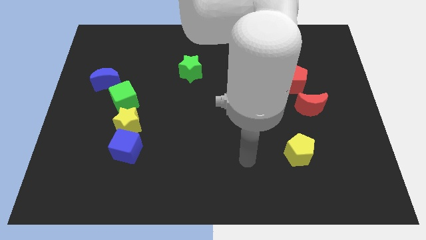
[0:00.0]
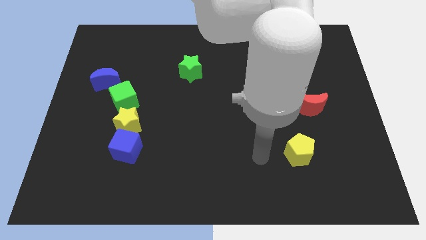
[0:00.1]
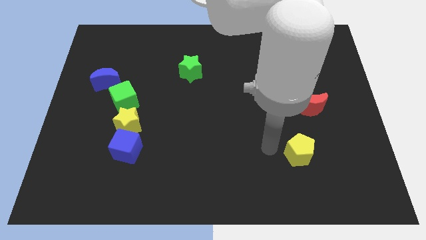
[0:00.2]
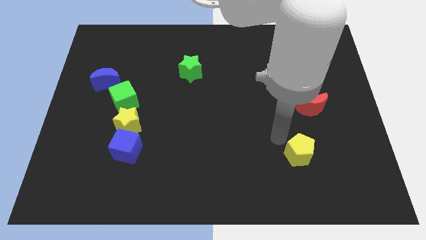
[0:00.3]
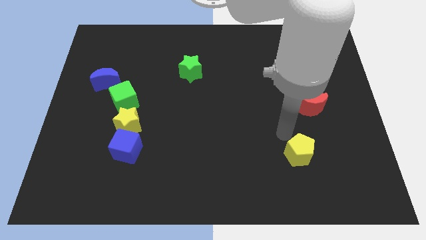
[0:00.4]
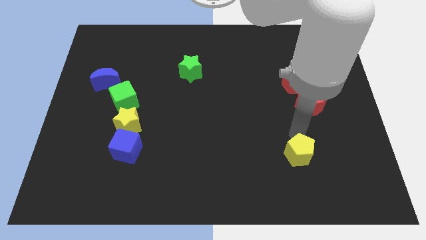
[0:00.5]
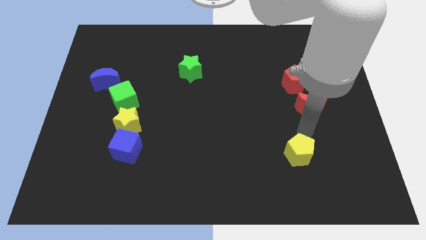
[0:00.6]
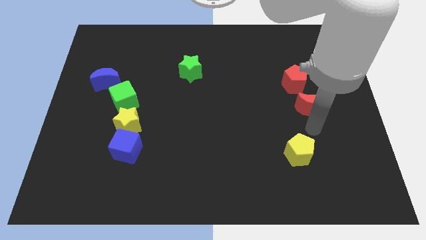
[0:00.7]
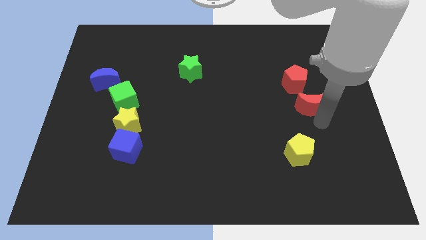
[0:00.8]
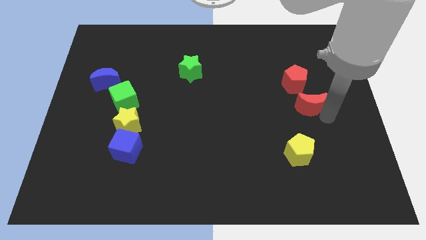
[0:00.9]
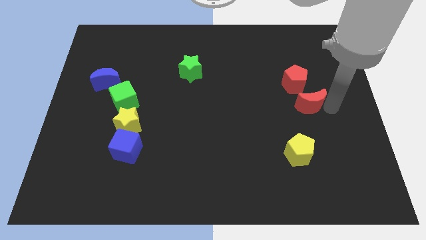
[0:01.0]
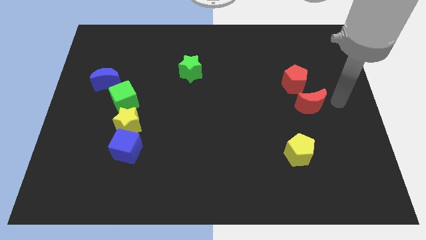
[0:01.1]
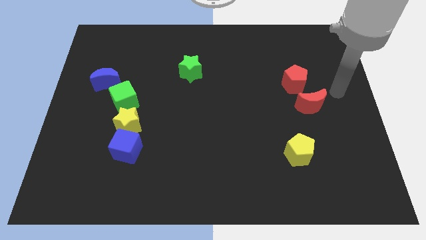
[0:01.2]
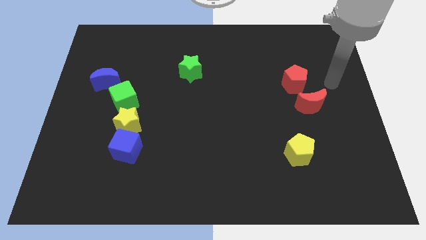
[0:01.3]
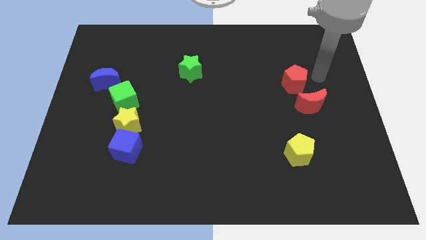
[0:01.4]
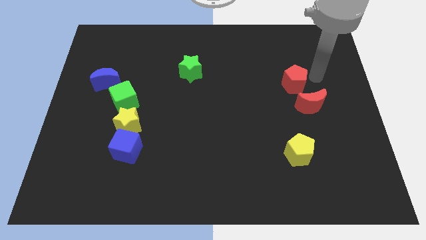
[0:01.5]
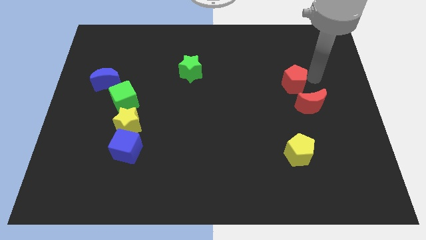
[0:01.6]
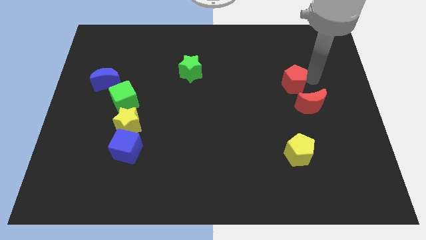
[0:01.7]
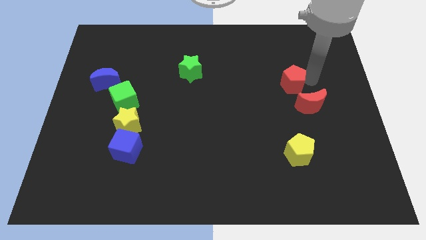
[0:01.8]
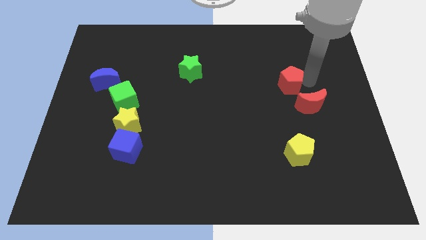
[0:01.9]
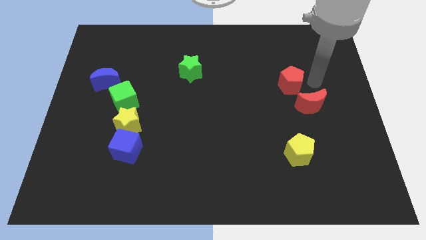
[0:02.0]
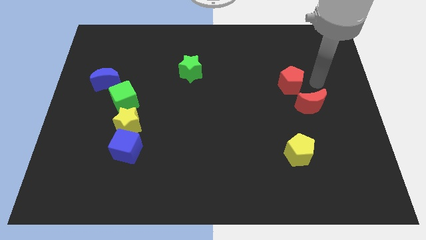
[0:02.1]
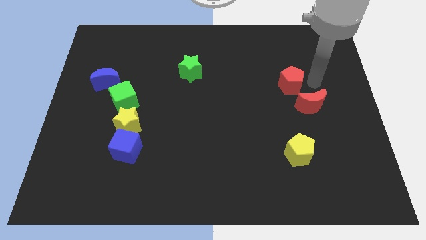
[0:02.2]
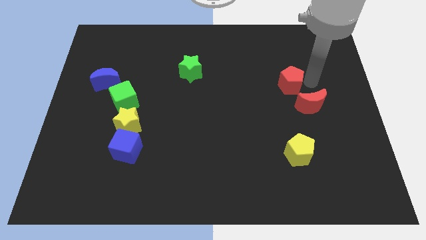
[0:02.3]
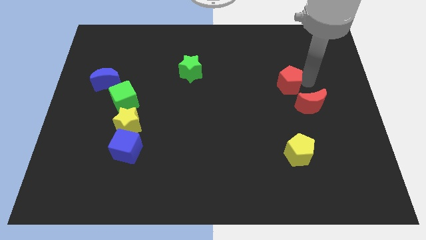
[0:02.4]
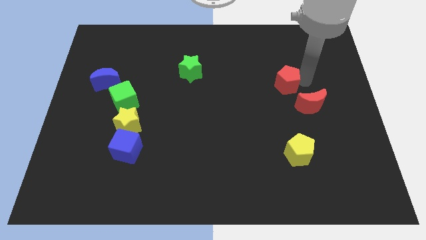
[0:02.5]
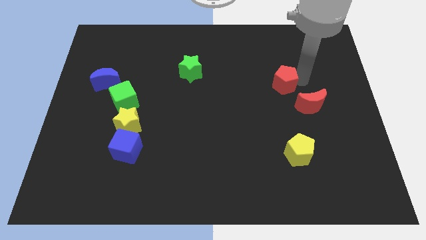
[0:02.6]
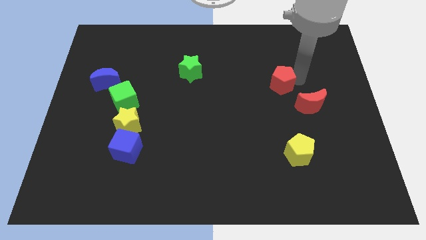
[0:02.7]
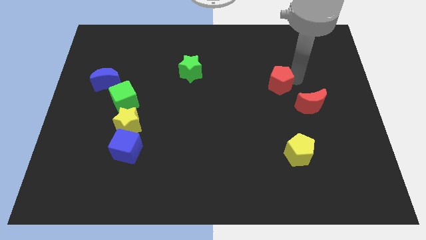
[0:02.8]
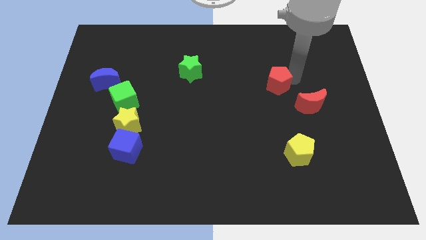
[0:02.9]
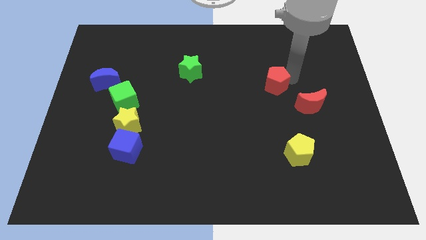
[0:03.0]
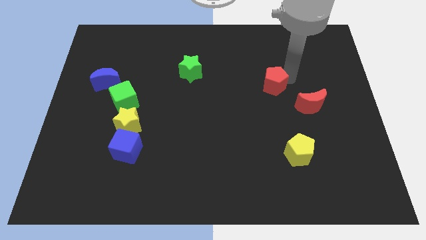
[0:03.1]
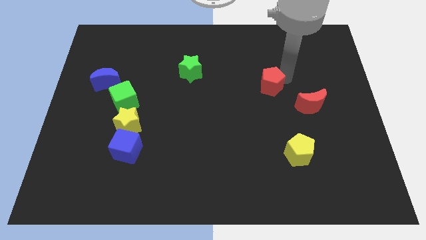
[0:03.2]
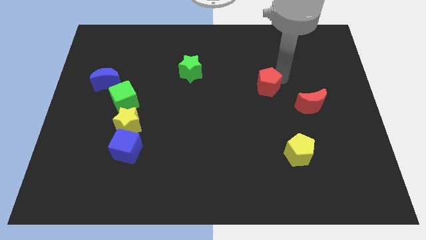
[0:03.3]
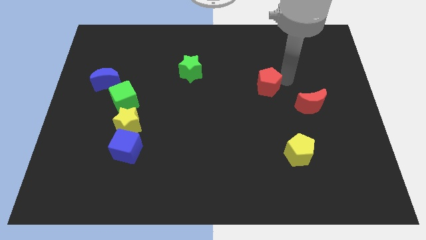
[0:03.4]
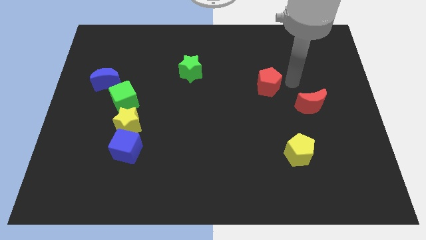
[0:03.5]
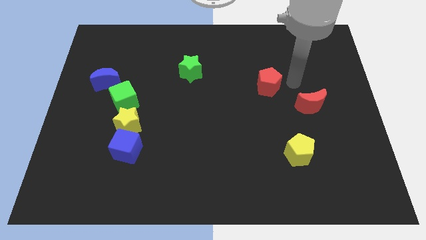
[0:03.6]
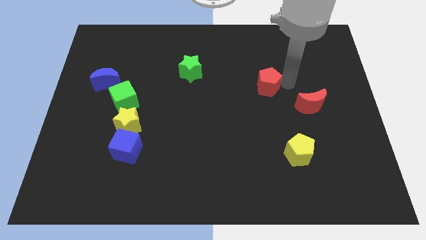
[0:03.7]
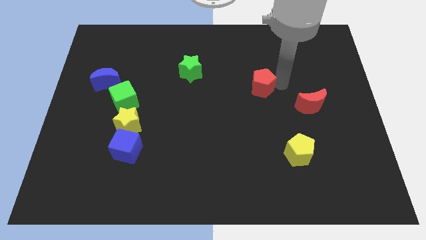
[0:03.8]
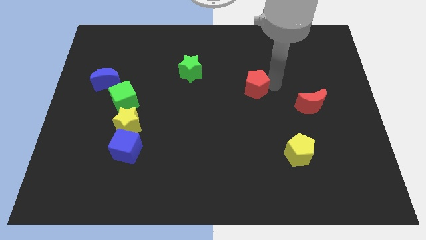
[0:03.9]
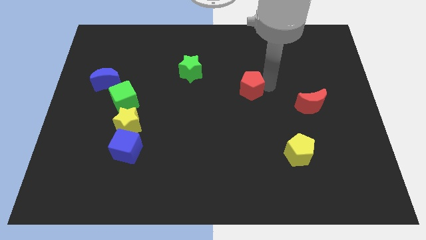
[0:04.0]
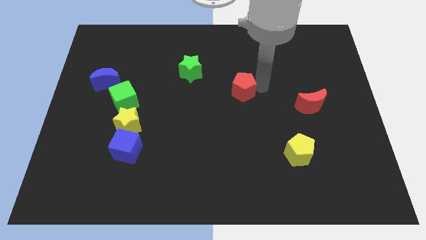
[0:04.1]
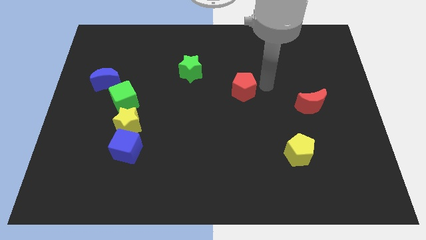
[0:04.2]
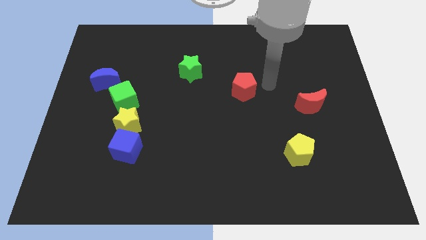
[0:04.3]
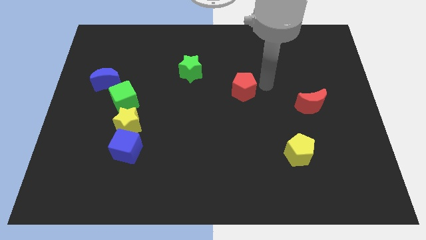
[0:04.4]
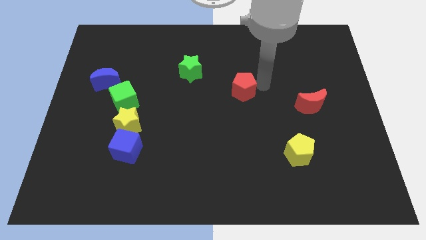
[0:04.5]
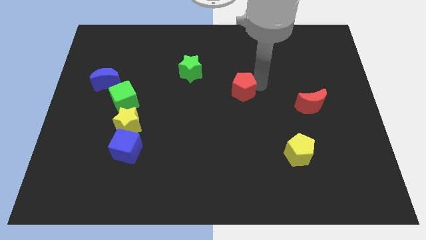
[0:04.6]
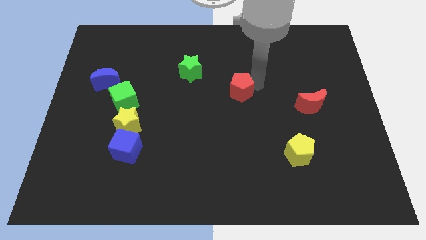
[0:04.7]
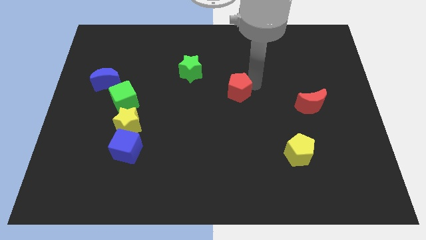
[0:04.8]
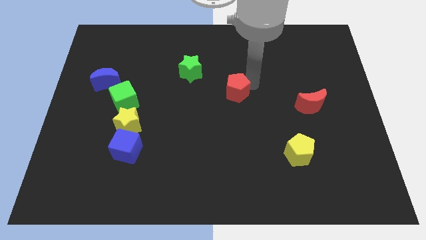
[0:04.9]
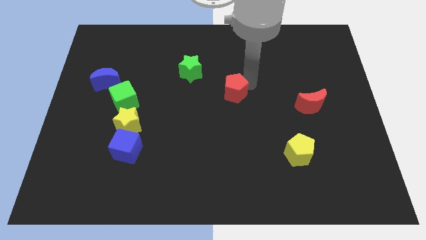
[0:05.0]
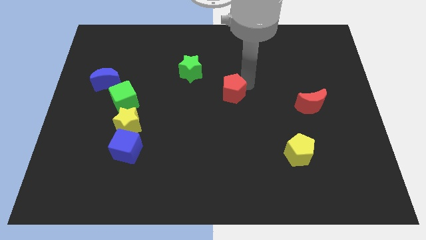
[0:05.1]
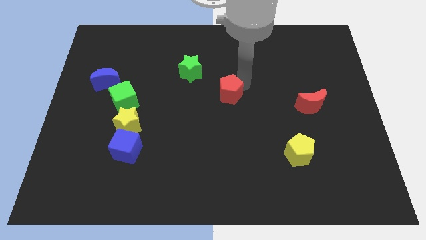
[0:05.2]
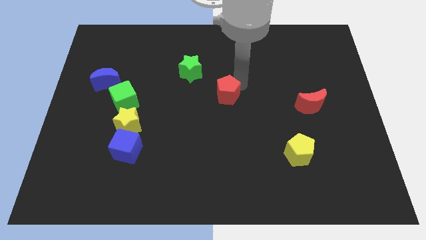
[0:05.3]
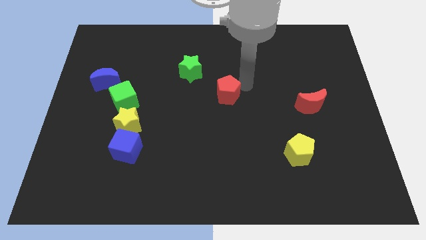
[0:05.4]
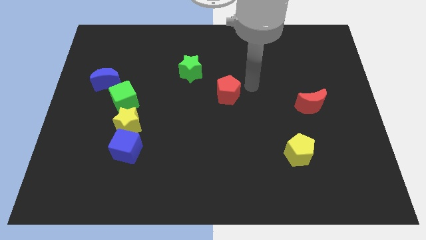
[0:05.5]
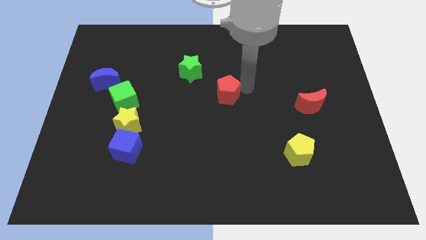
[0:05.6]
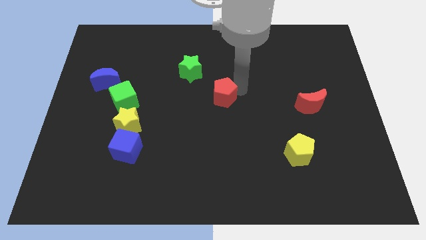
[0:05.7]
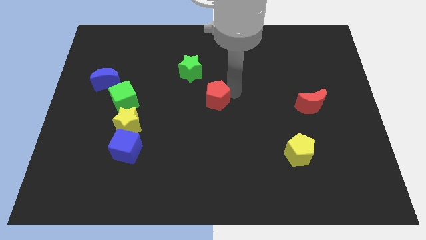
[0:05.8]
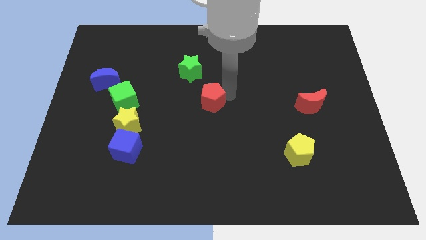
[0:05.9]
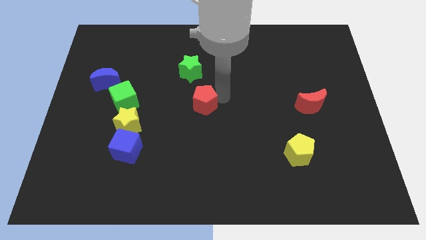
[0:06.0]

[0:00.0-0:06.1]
push the red pentagon to the bottom side of the green star

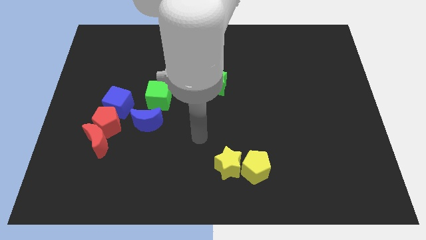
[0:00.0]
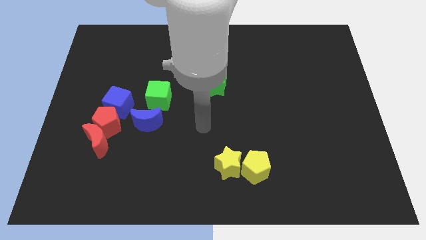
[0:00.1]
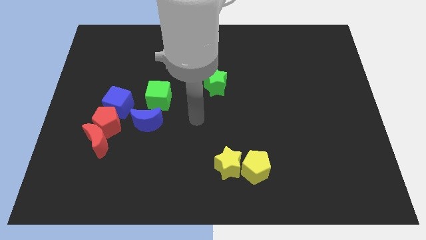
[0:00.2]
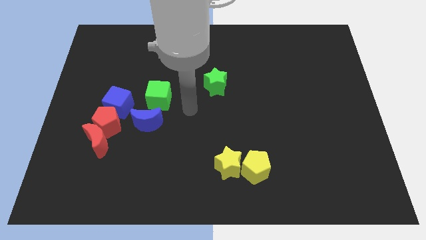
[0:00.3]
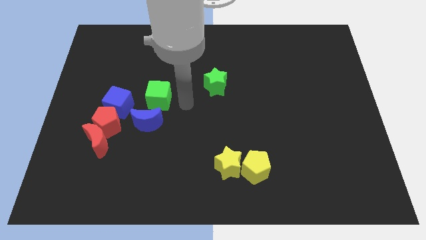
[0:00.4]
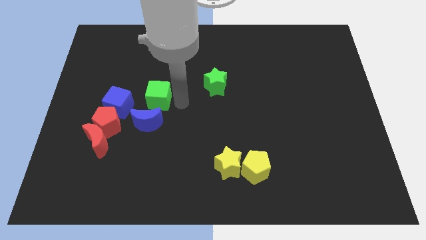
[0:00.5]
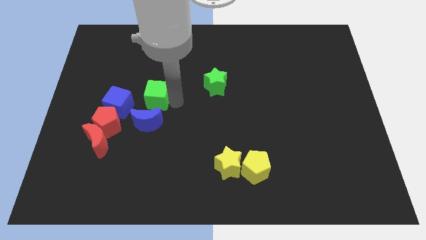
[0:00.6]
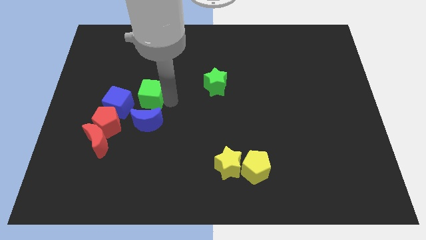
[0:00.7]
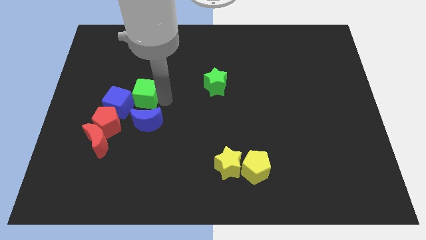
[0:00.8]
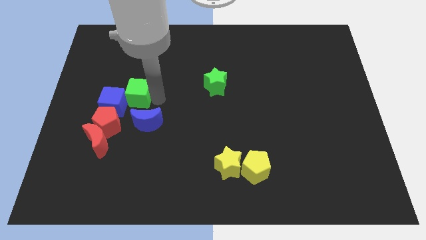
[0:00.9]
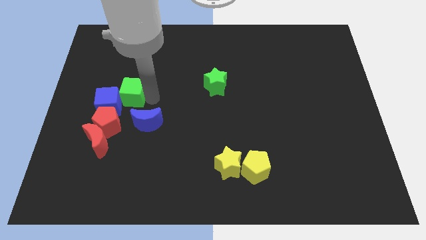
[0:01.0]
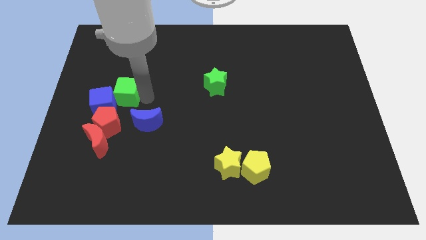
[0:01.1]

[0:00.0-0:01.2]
move the green cube to the top side of the red moon
